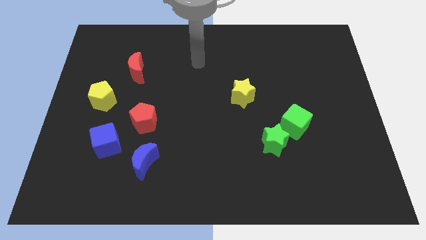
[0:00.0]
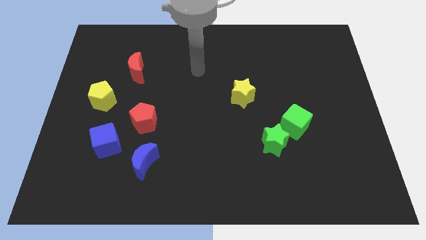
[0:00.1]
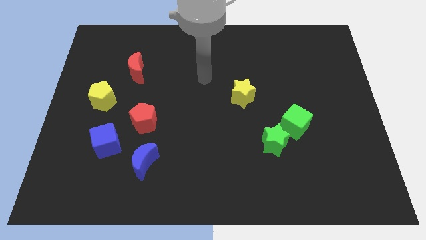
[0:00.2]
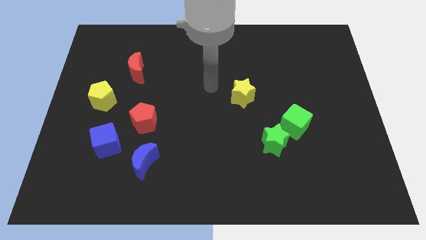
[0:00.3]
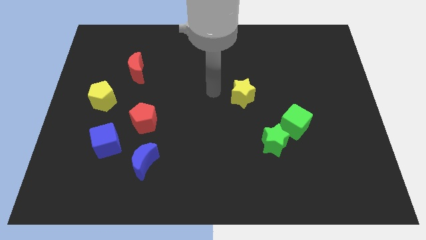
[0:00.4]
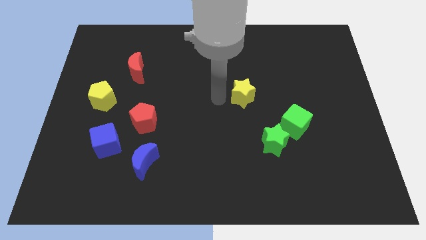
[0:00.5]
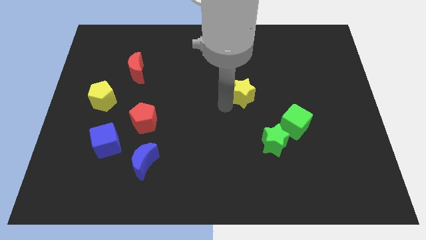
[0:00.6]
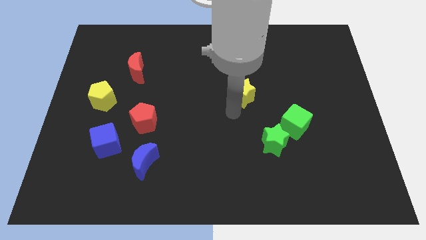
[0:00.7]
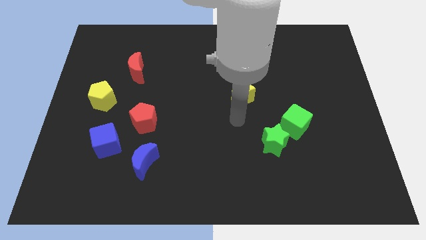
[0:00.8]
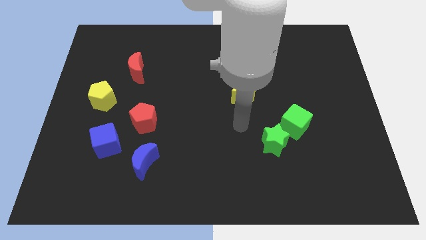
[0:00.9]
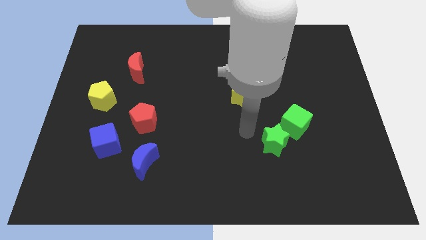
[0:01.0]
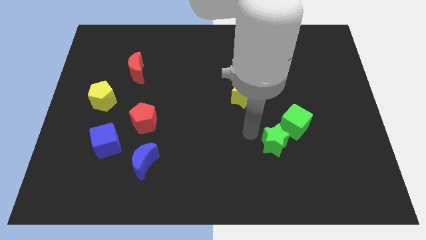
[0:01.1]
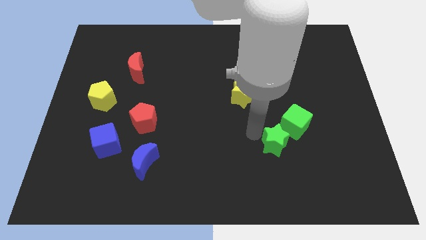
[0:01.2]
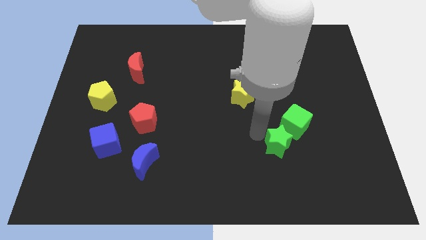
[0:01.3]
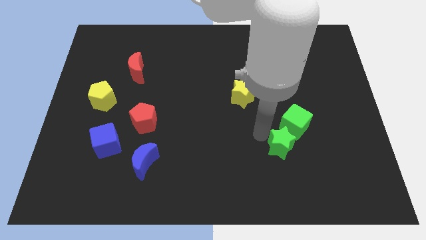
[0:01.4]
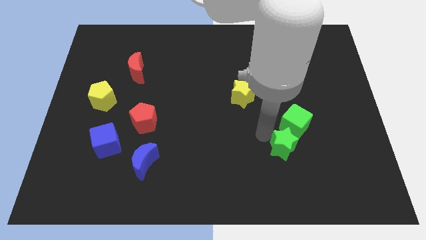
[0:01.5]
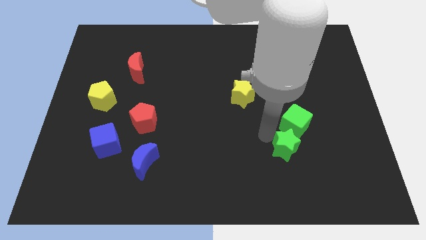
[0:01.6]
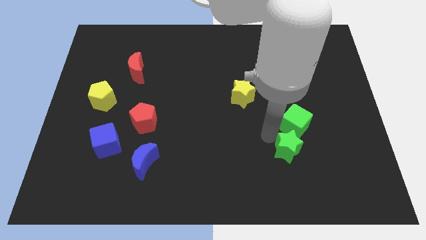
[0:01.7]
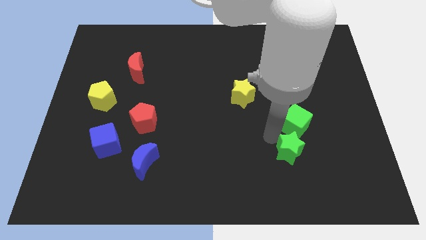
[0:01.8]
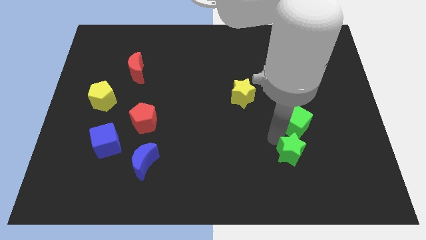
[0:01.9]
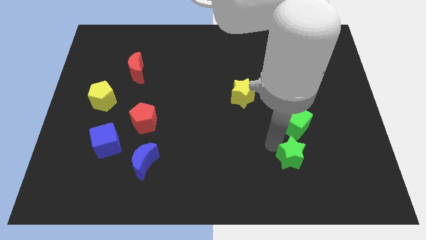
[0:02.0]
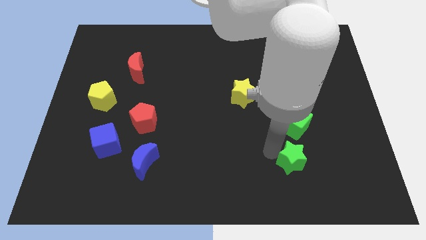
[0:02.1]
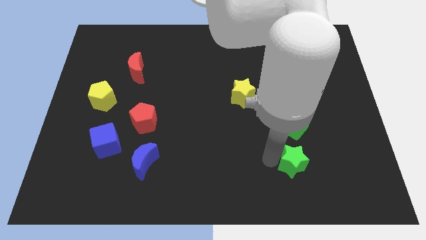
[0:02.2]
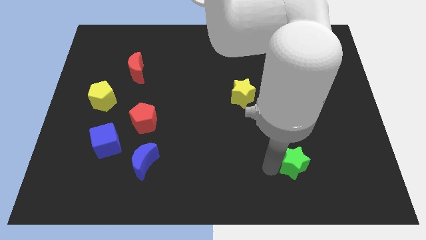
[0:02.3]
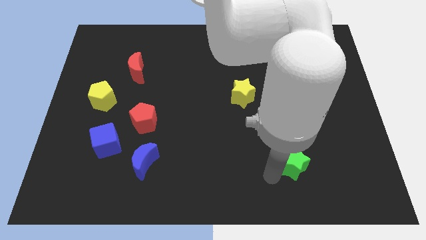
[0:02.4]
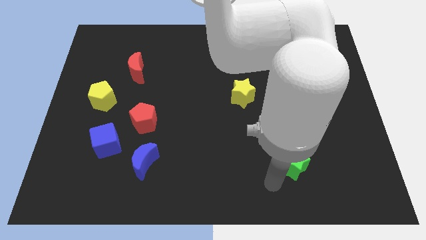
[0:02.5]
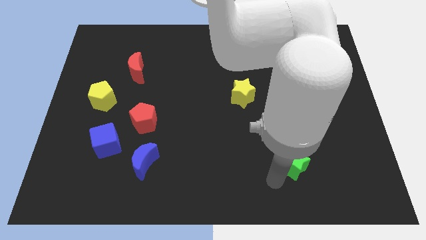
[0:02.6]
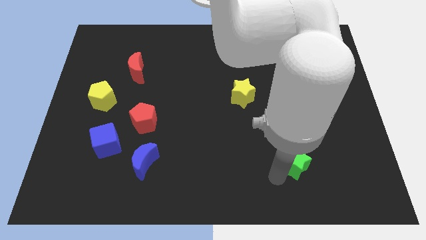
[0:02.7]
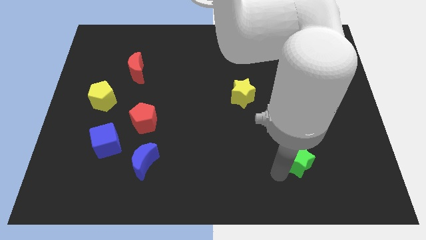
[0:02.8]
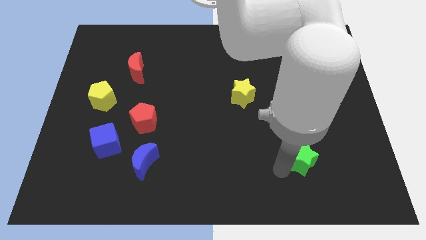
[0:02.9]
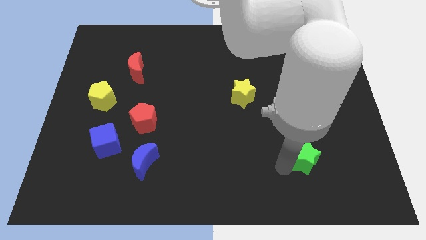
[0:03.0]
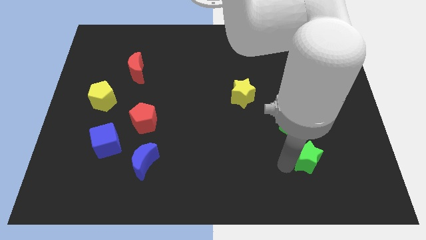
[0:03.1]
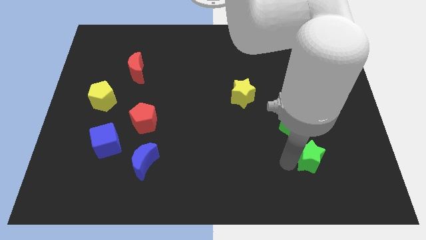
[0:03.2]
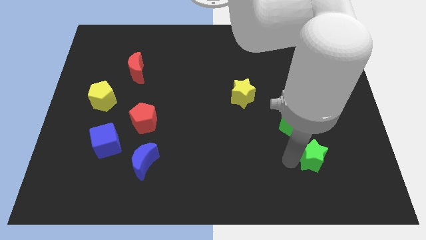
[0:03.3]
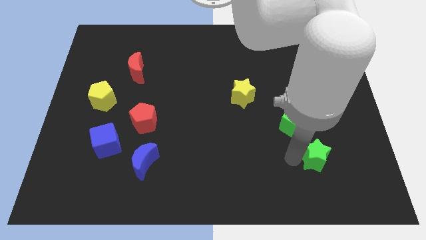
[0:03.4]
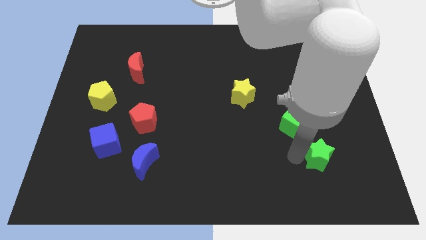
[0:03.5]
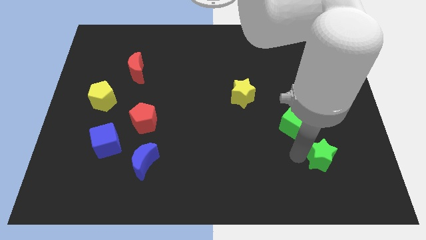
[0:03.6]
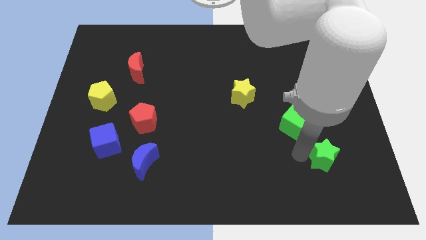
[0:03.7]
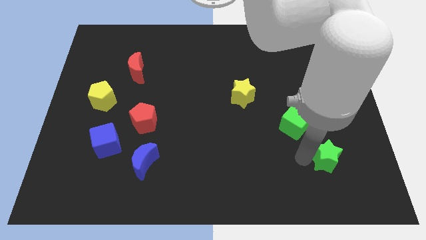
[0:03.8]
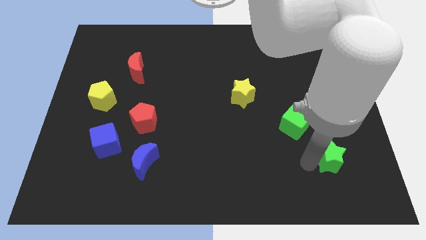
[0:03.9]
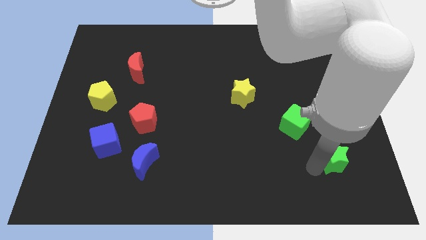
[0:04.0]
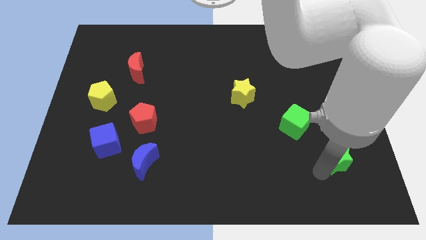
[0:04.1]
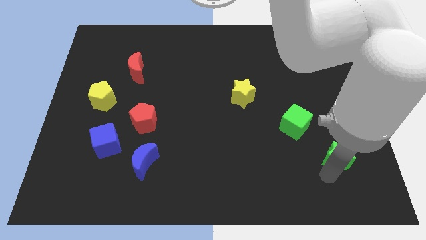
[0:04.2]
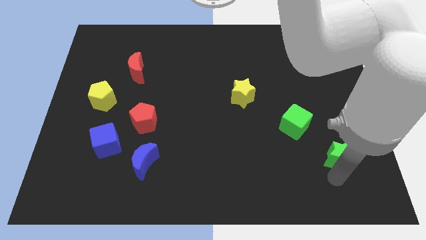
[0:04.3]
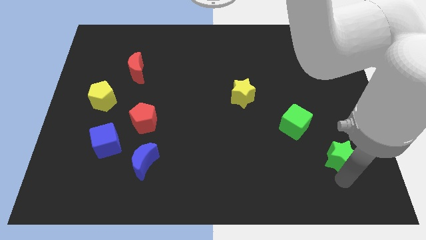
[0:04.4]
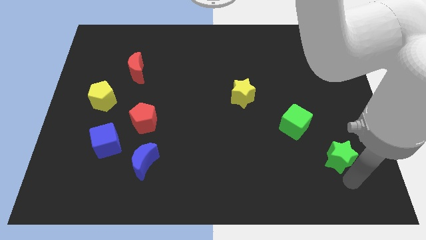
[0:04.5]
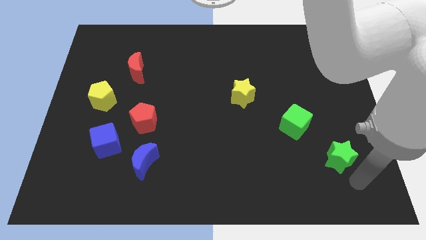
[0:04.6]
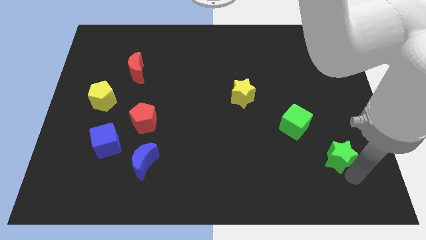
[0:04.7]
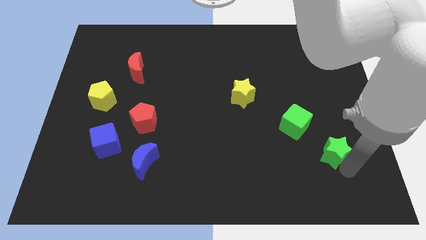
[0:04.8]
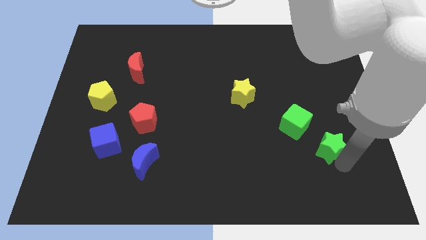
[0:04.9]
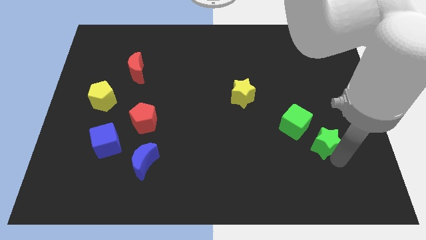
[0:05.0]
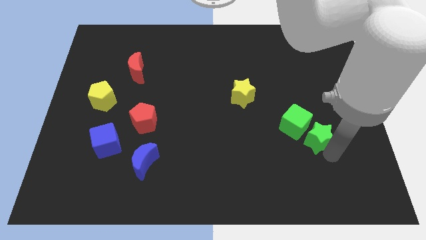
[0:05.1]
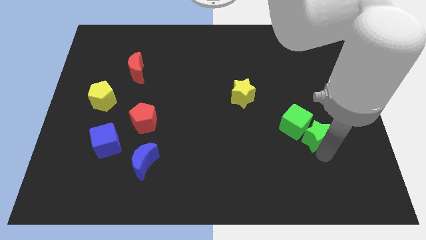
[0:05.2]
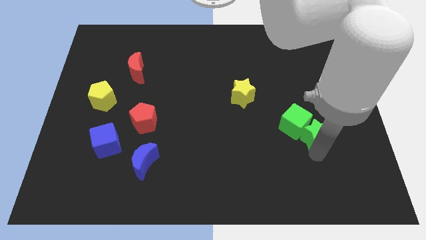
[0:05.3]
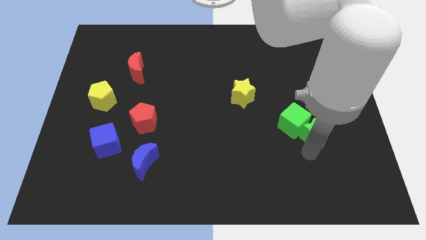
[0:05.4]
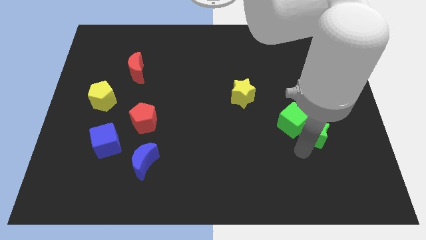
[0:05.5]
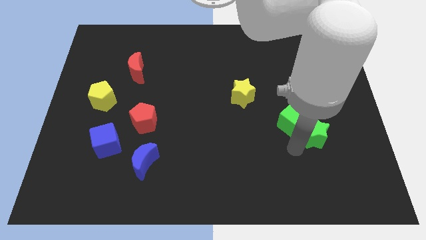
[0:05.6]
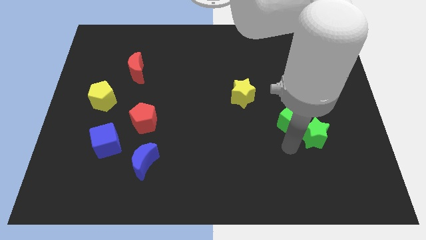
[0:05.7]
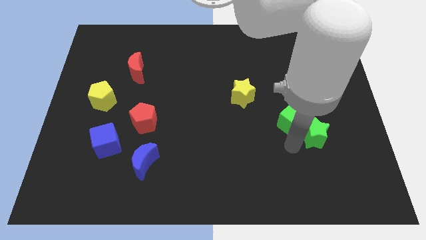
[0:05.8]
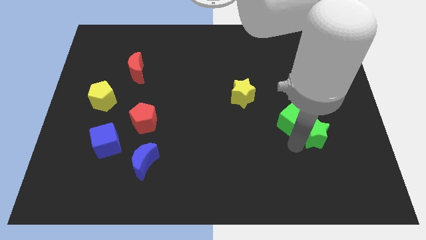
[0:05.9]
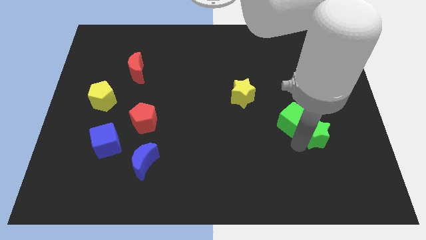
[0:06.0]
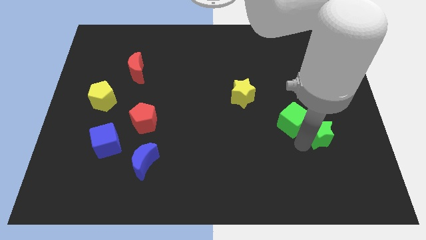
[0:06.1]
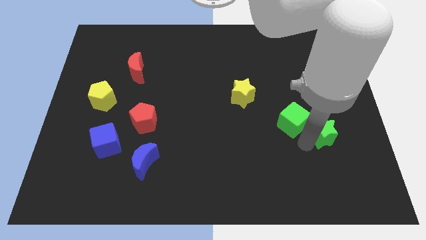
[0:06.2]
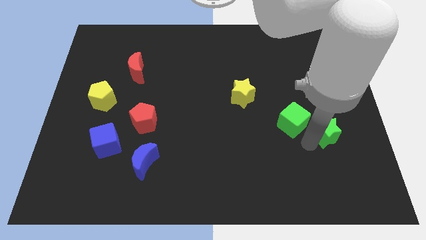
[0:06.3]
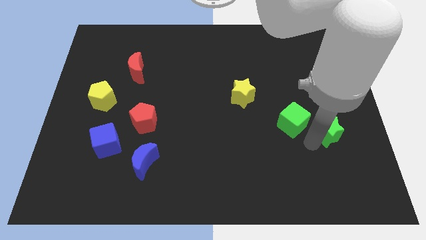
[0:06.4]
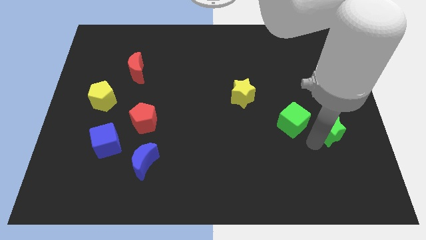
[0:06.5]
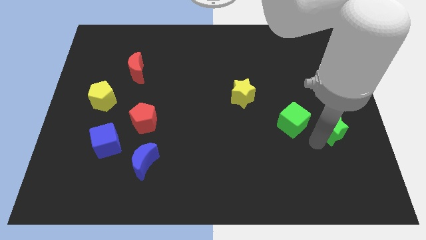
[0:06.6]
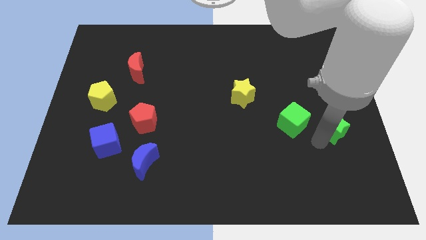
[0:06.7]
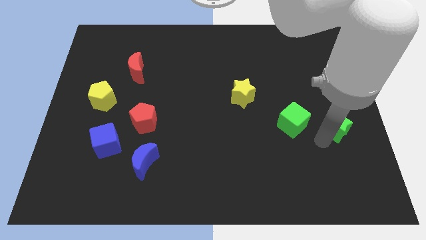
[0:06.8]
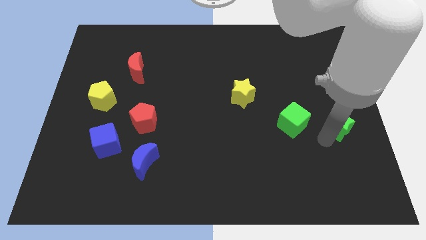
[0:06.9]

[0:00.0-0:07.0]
push the green star to the center right

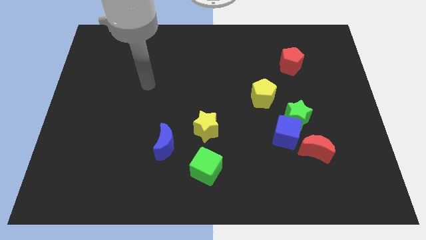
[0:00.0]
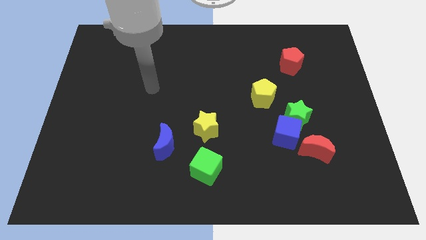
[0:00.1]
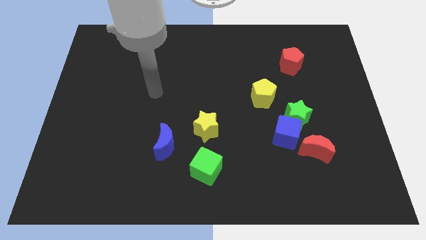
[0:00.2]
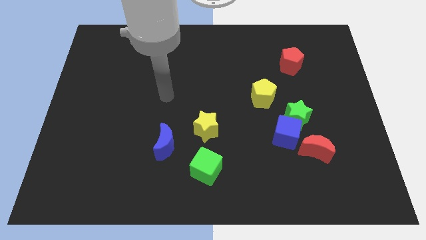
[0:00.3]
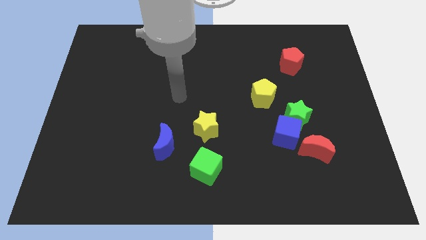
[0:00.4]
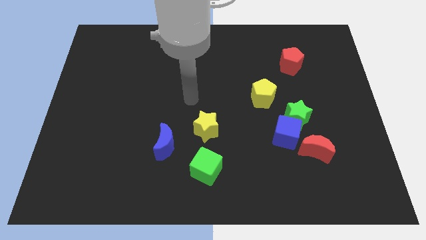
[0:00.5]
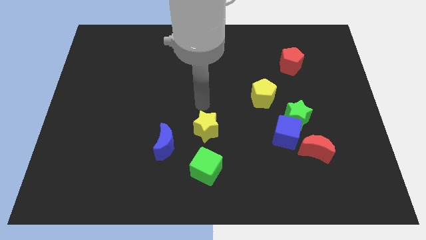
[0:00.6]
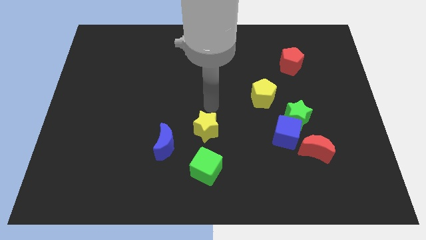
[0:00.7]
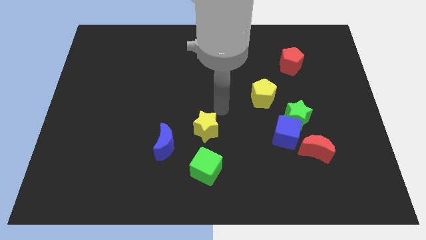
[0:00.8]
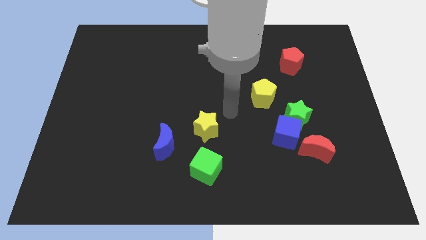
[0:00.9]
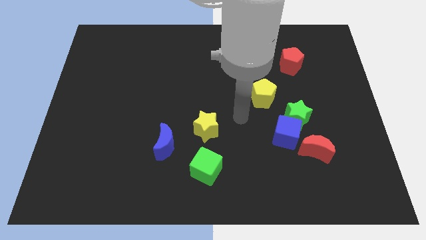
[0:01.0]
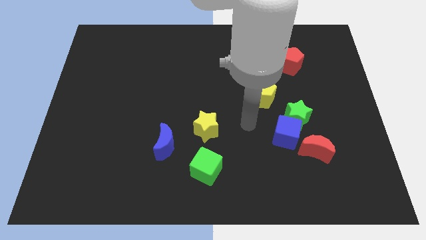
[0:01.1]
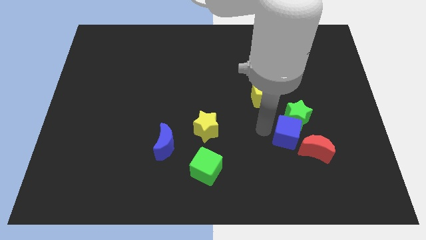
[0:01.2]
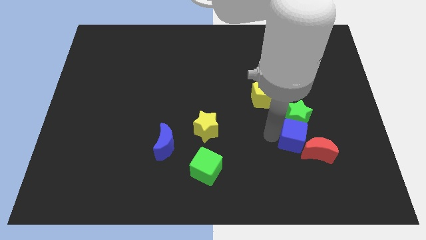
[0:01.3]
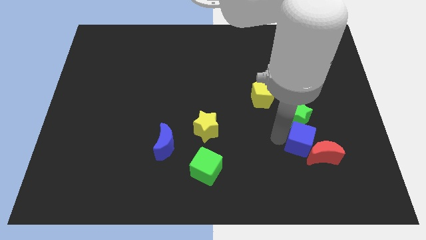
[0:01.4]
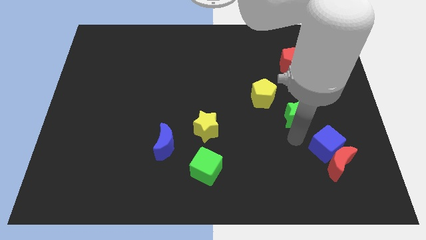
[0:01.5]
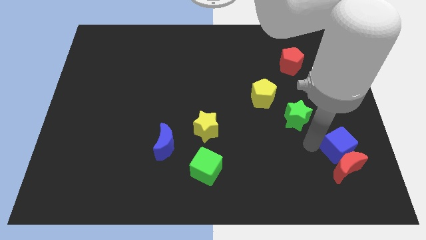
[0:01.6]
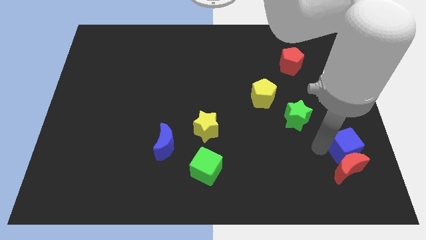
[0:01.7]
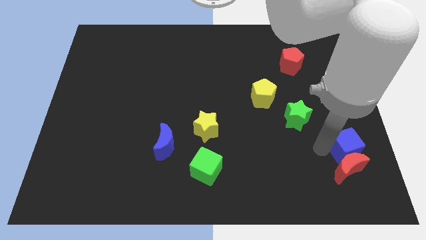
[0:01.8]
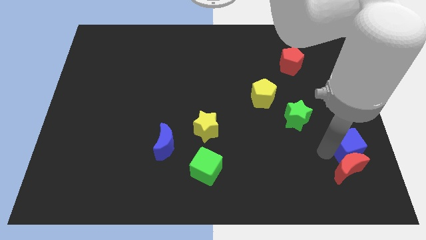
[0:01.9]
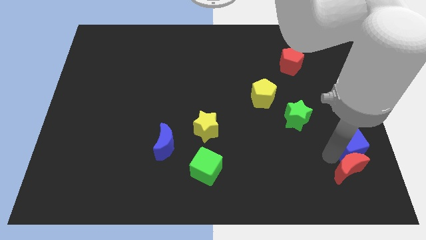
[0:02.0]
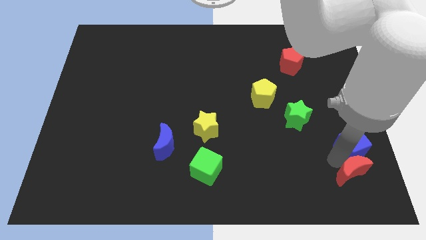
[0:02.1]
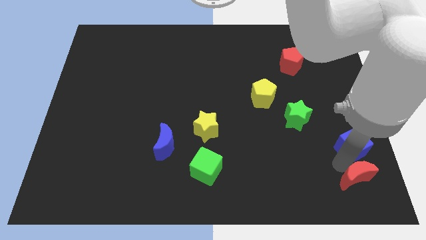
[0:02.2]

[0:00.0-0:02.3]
put the red moon to the bottom right corner
